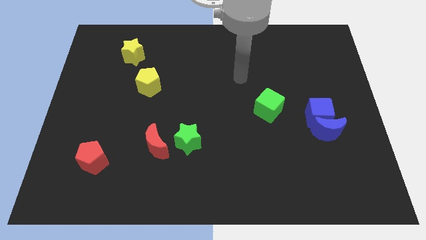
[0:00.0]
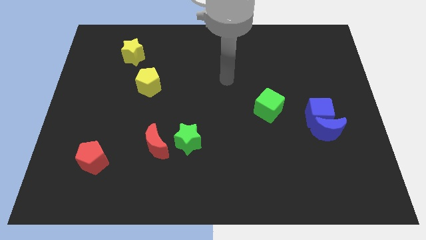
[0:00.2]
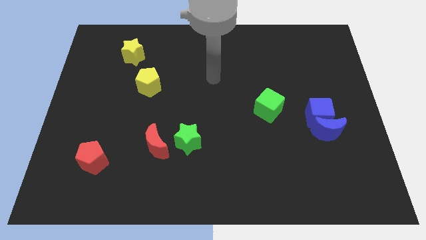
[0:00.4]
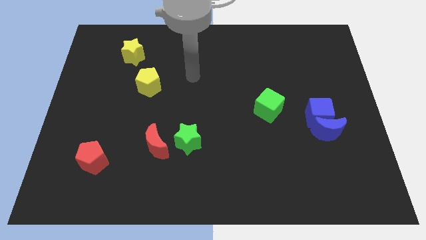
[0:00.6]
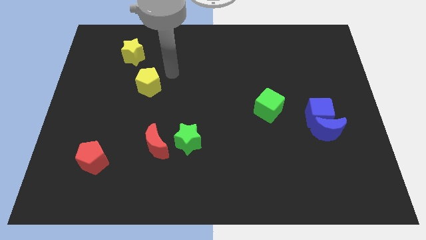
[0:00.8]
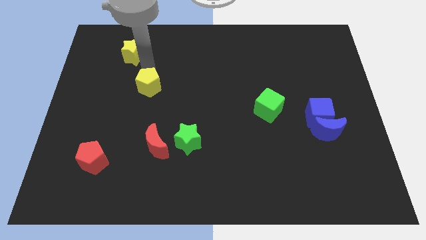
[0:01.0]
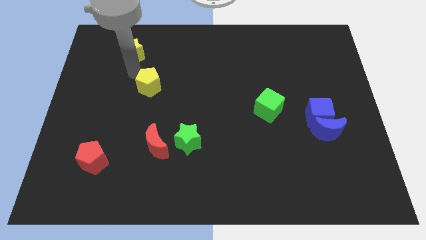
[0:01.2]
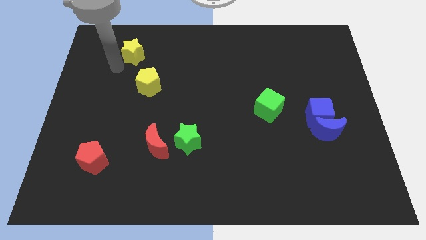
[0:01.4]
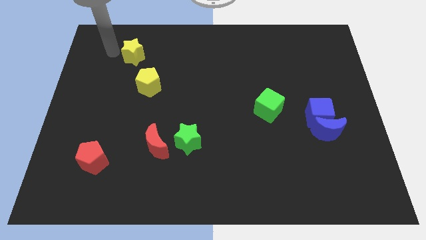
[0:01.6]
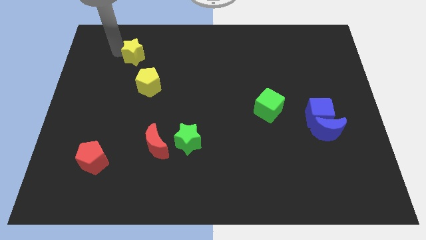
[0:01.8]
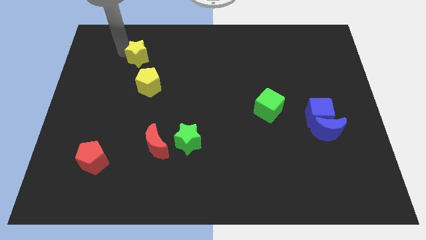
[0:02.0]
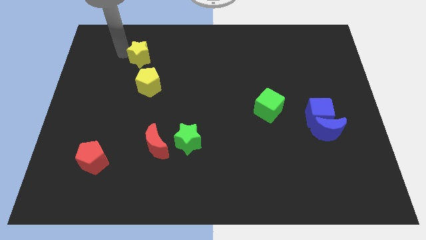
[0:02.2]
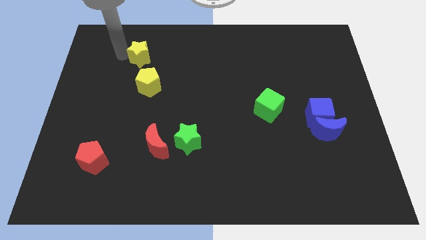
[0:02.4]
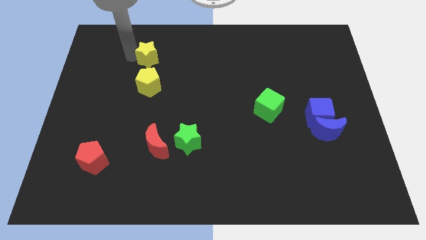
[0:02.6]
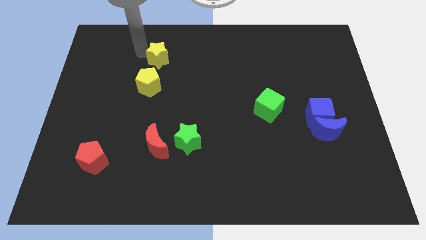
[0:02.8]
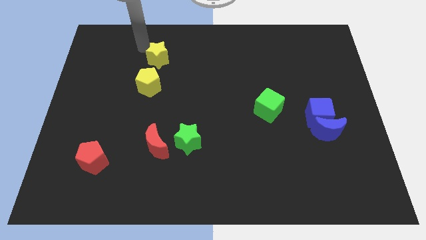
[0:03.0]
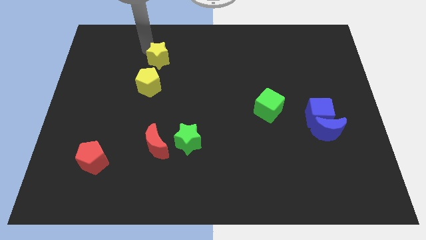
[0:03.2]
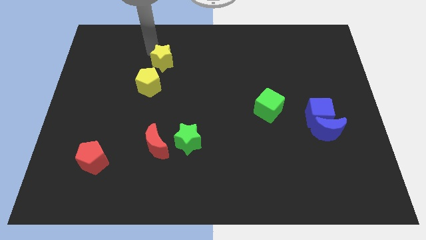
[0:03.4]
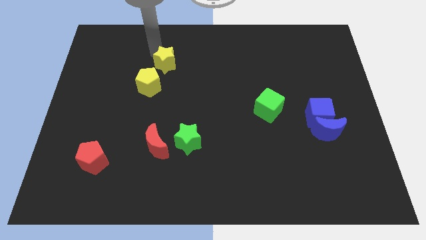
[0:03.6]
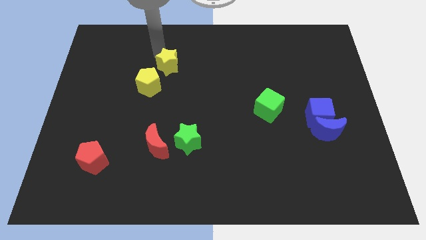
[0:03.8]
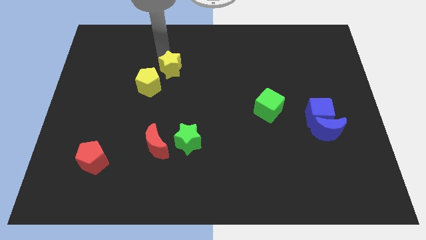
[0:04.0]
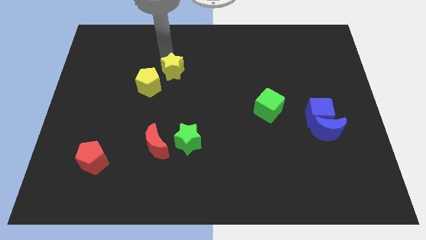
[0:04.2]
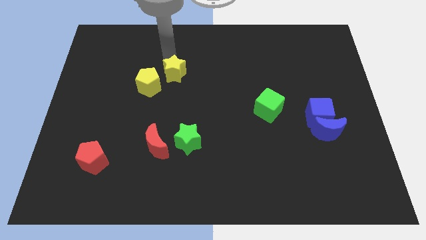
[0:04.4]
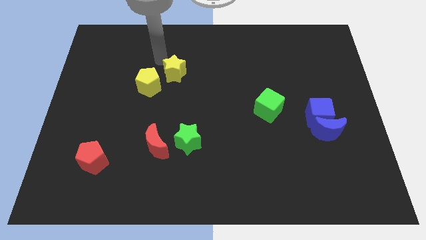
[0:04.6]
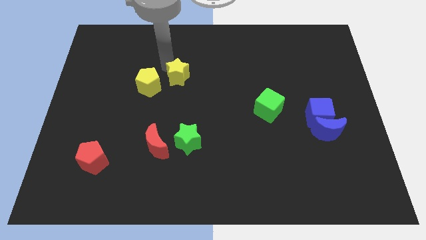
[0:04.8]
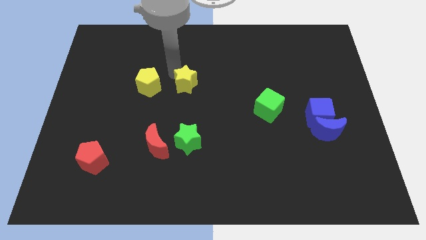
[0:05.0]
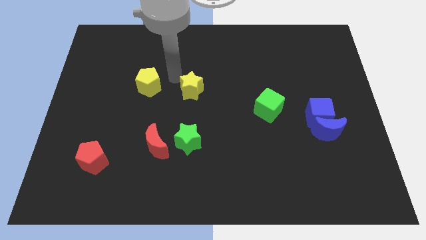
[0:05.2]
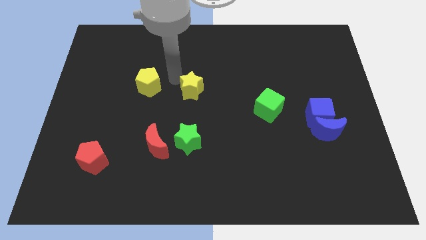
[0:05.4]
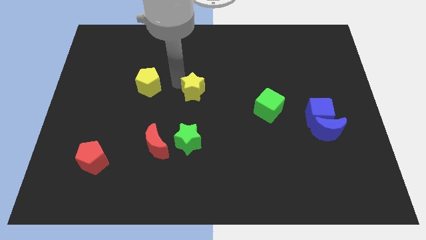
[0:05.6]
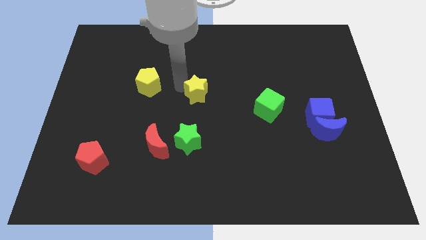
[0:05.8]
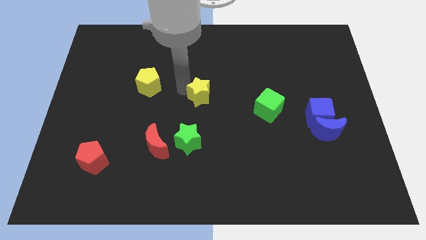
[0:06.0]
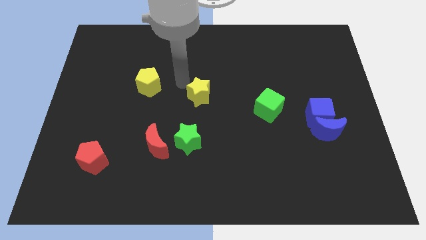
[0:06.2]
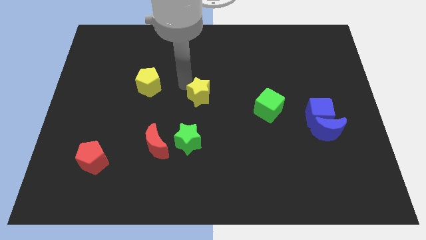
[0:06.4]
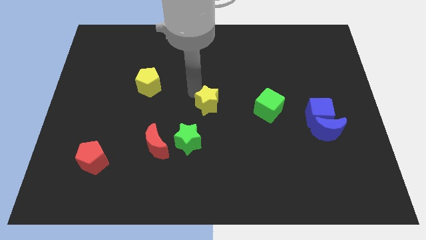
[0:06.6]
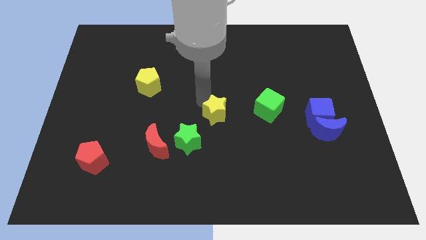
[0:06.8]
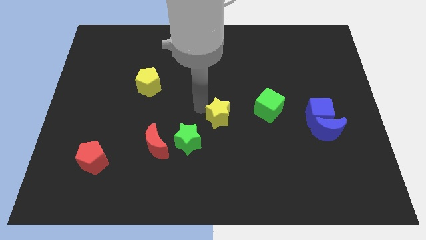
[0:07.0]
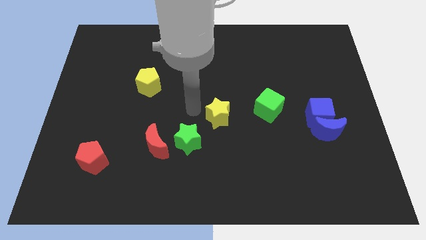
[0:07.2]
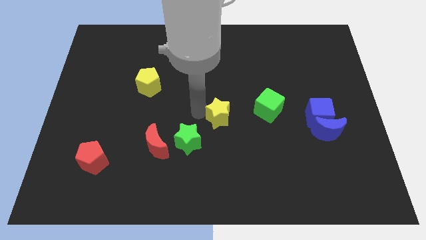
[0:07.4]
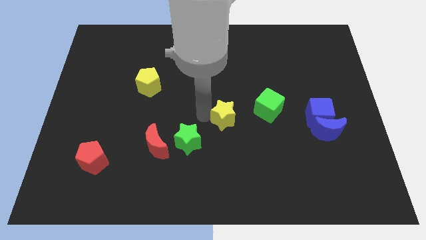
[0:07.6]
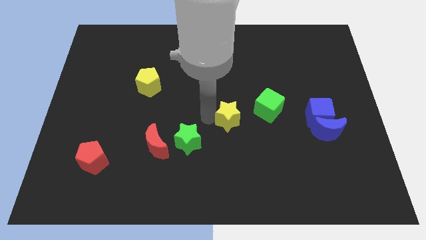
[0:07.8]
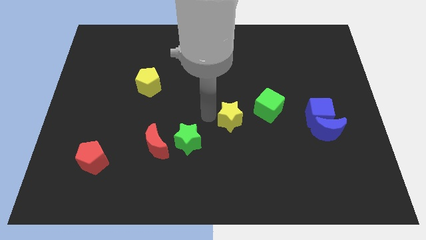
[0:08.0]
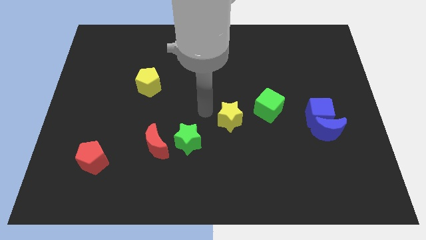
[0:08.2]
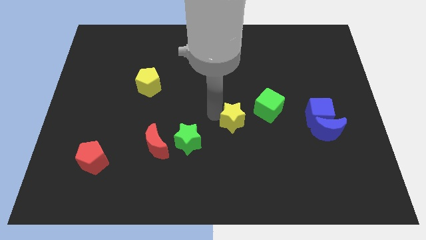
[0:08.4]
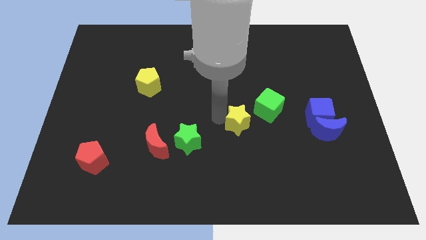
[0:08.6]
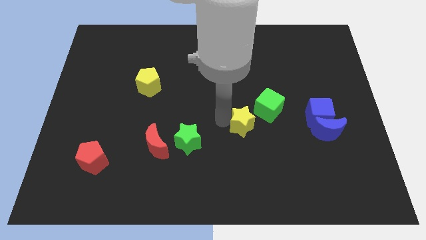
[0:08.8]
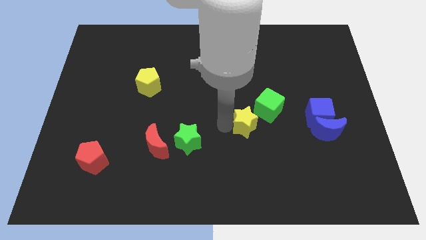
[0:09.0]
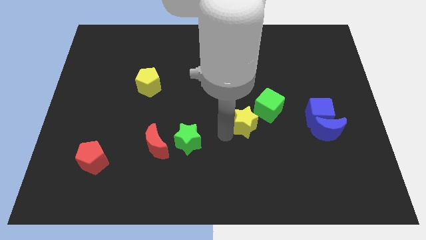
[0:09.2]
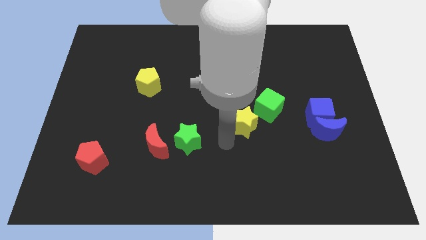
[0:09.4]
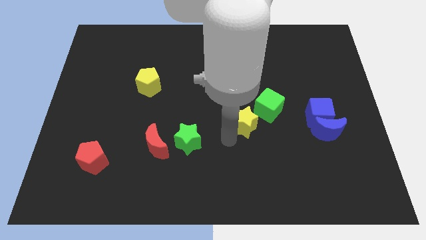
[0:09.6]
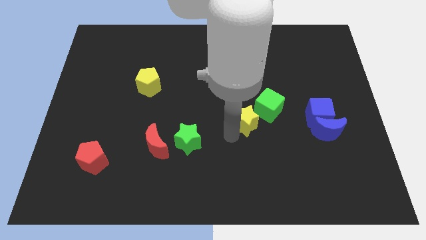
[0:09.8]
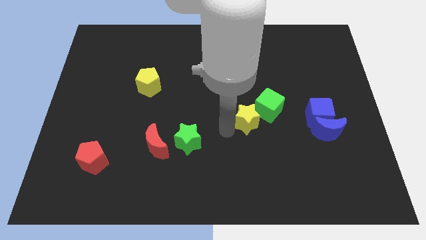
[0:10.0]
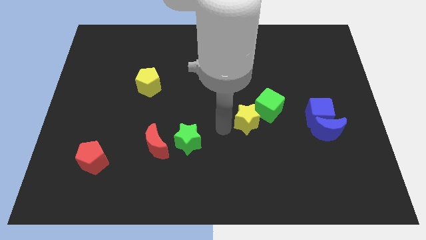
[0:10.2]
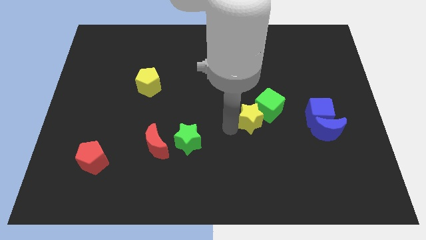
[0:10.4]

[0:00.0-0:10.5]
push the yellow star left of the blue cube

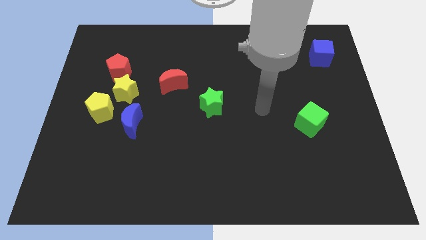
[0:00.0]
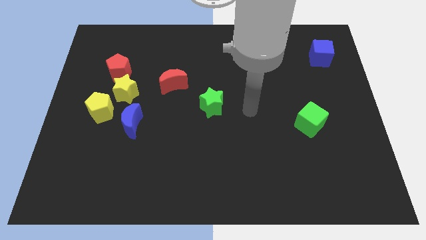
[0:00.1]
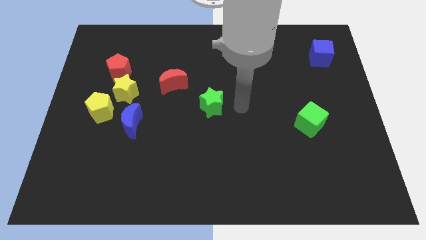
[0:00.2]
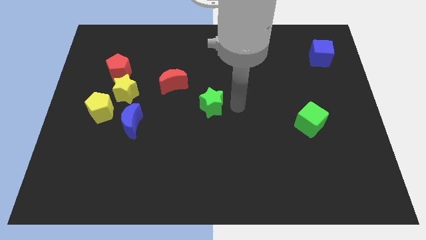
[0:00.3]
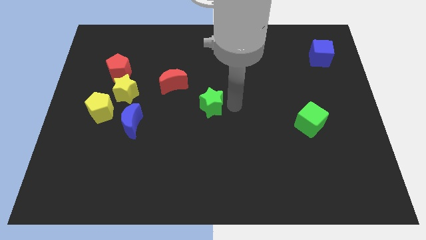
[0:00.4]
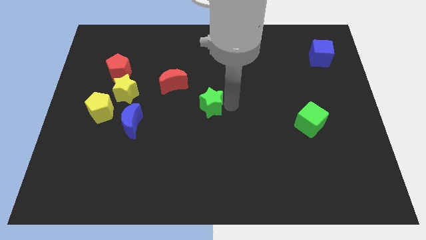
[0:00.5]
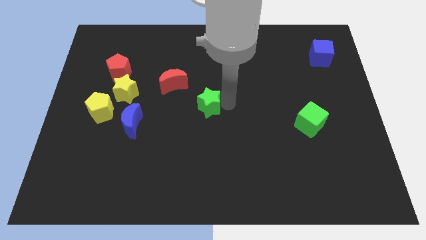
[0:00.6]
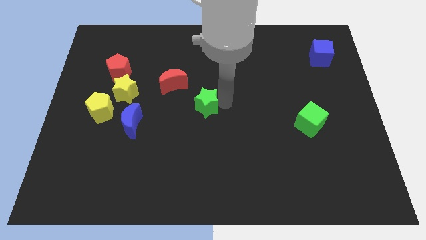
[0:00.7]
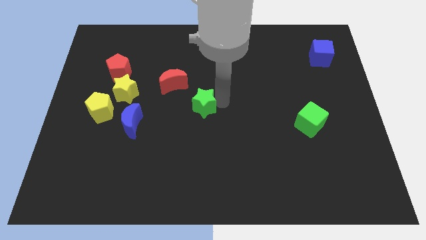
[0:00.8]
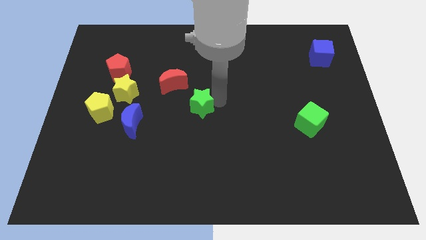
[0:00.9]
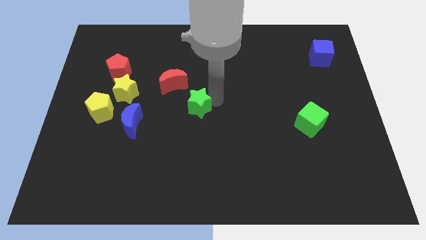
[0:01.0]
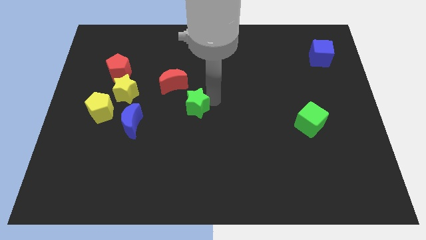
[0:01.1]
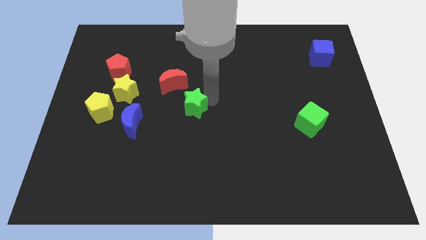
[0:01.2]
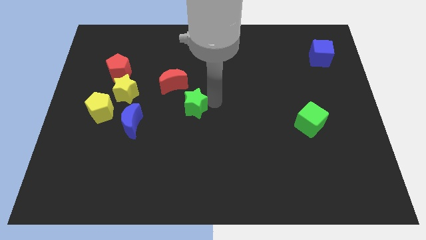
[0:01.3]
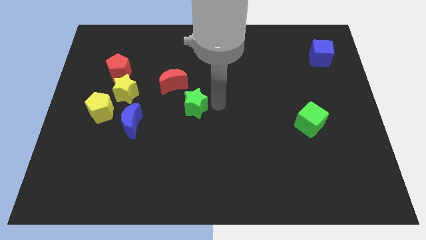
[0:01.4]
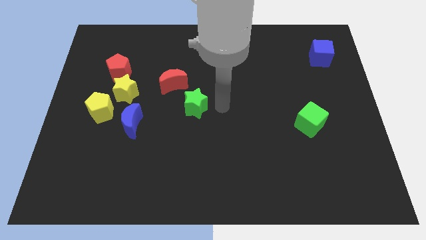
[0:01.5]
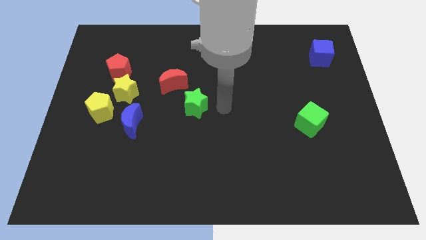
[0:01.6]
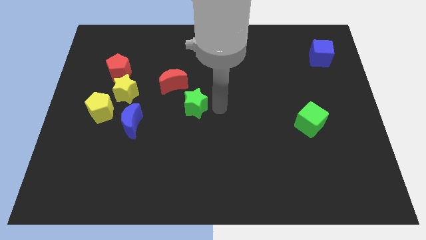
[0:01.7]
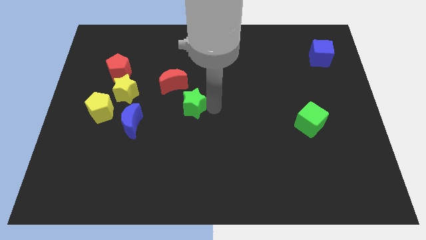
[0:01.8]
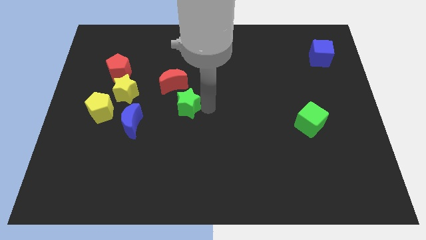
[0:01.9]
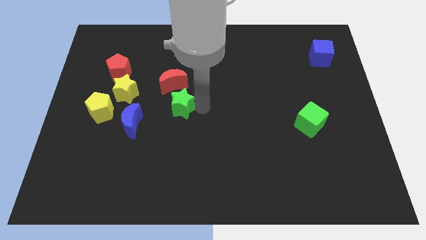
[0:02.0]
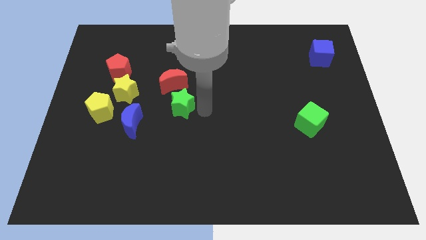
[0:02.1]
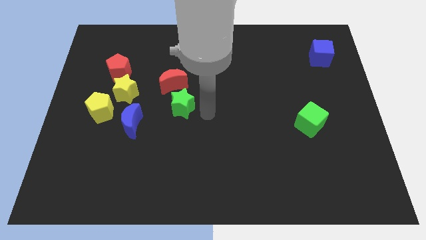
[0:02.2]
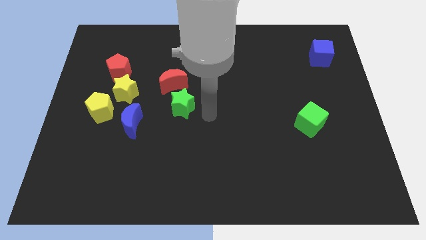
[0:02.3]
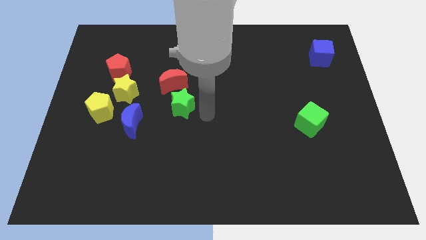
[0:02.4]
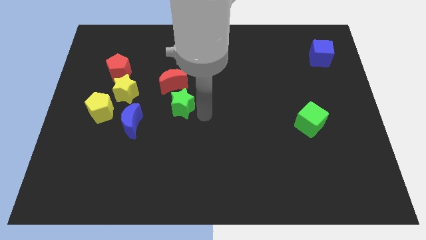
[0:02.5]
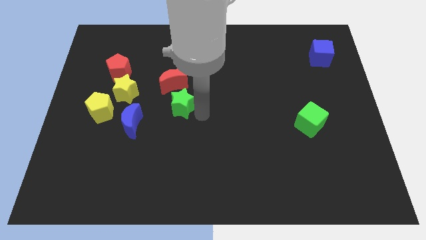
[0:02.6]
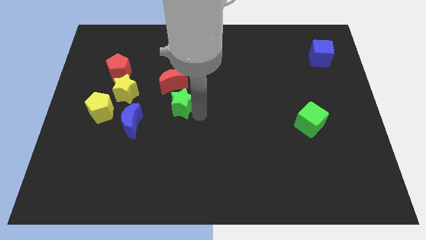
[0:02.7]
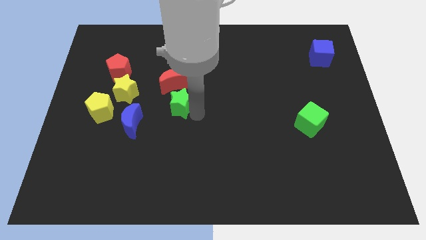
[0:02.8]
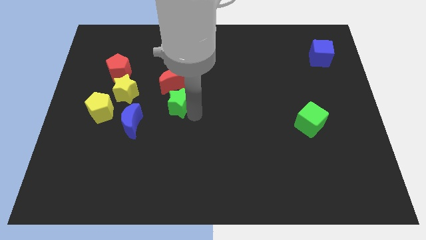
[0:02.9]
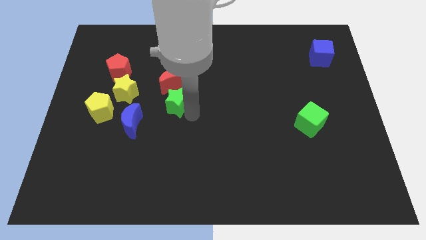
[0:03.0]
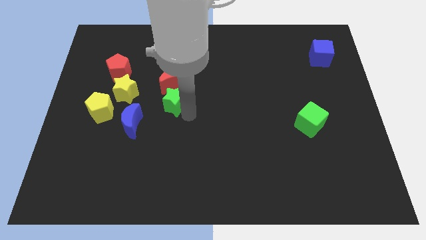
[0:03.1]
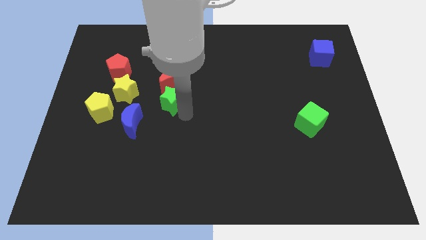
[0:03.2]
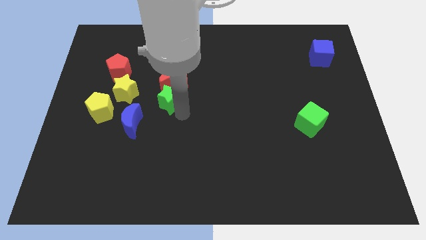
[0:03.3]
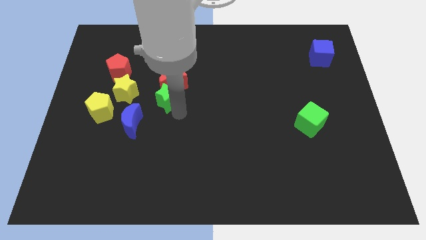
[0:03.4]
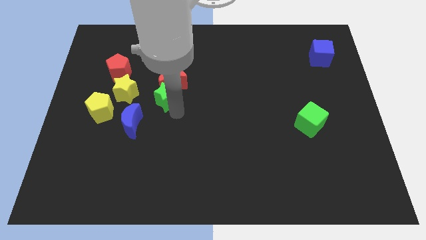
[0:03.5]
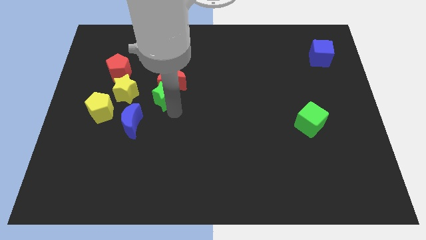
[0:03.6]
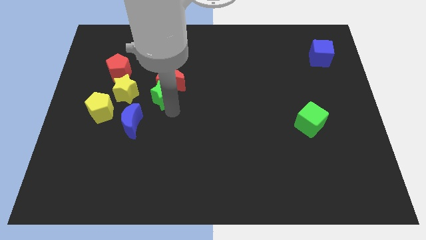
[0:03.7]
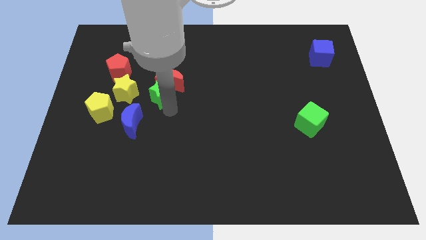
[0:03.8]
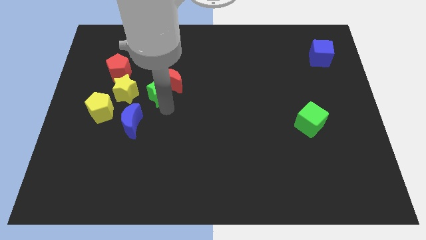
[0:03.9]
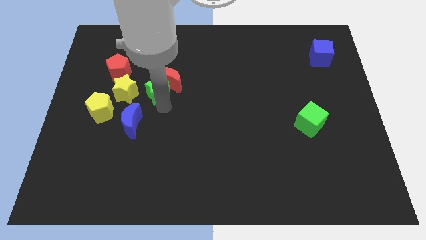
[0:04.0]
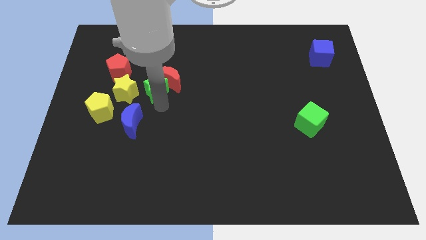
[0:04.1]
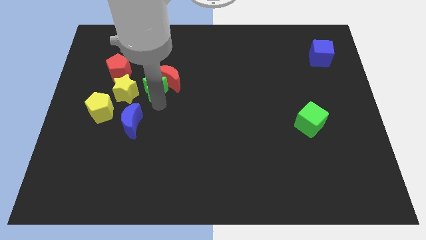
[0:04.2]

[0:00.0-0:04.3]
slide the green star diagonally up and to the right of the yellow star
